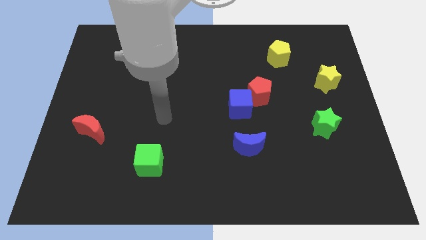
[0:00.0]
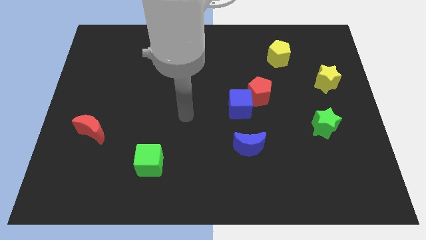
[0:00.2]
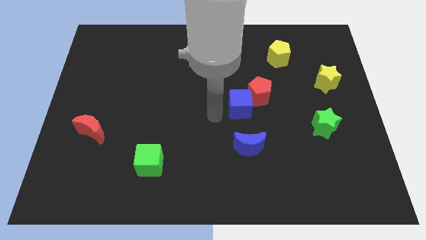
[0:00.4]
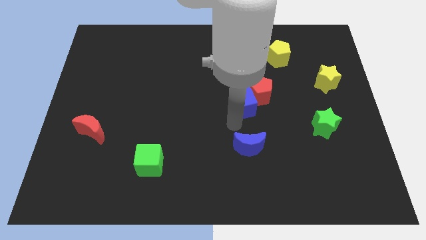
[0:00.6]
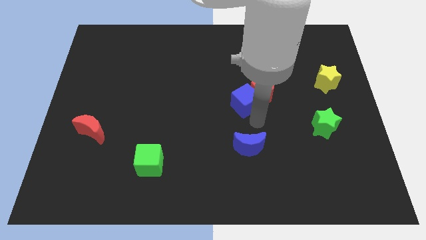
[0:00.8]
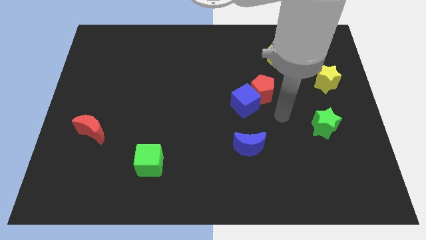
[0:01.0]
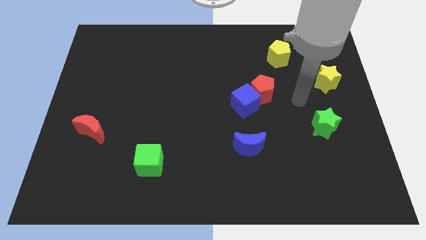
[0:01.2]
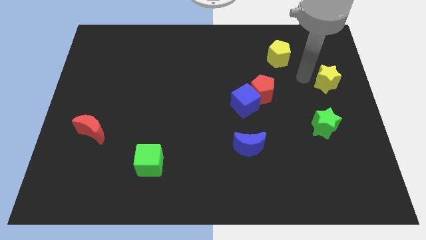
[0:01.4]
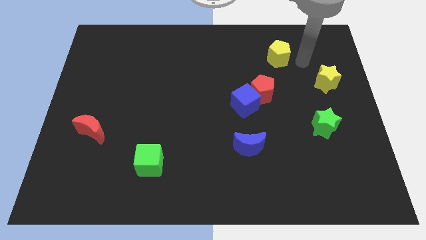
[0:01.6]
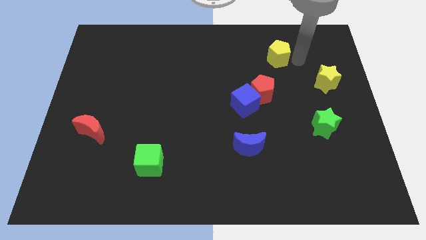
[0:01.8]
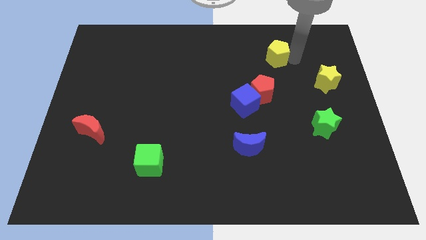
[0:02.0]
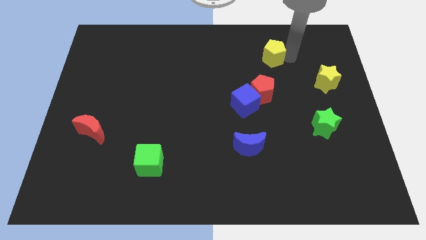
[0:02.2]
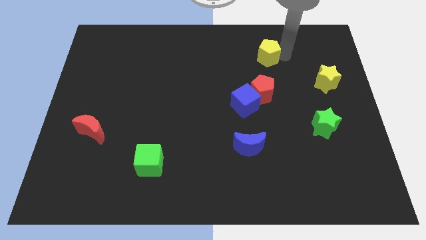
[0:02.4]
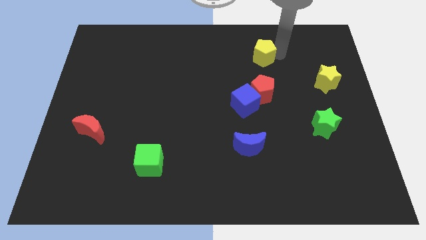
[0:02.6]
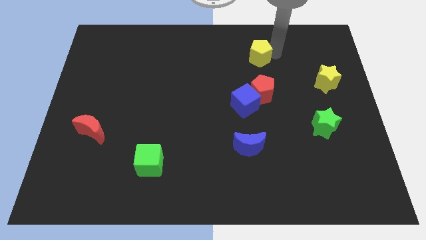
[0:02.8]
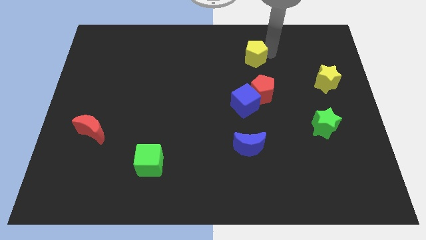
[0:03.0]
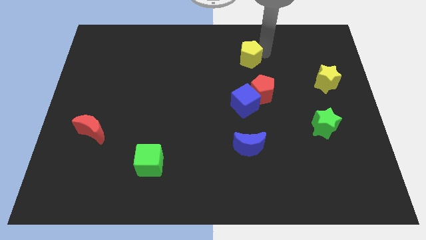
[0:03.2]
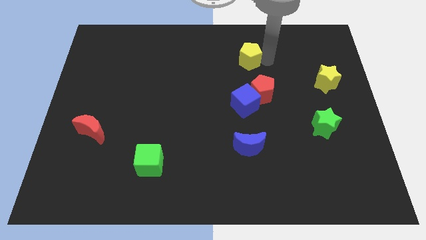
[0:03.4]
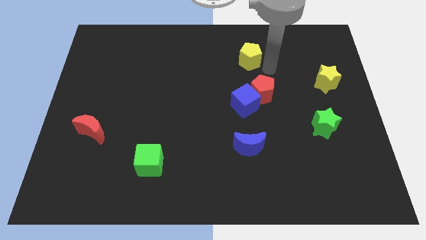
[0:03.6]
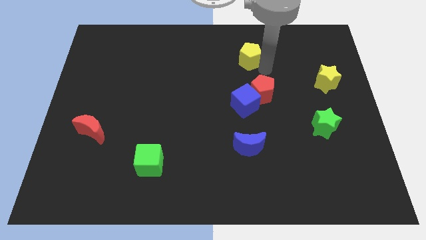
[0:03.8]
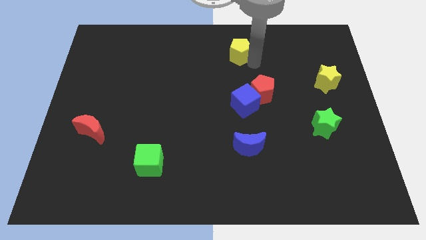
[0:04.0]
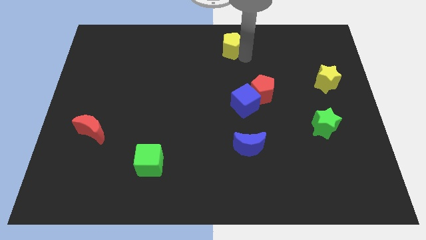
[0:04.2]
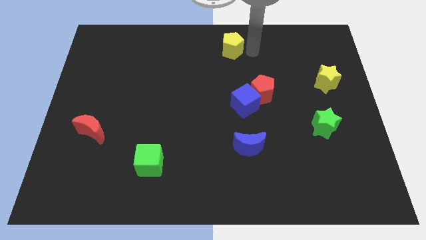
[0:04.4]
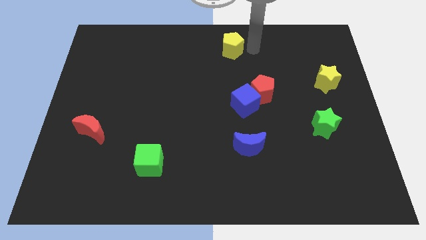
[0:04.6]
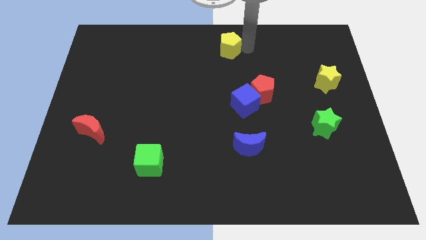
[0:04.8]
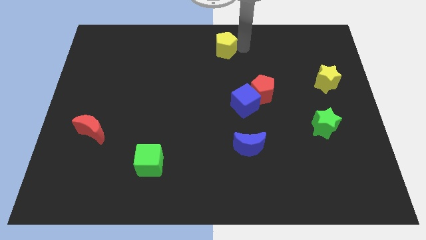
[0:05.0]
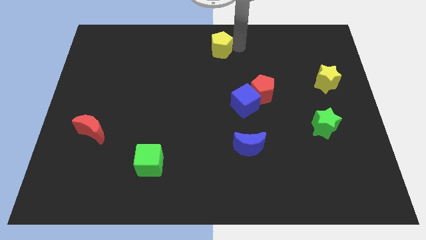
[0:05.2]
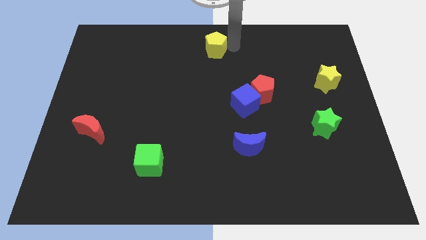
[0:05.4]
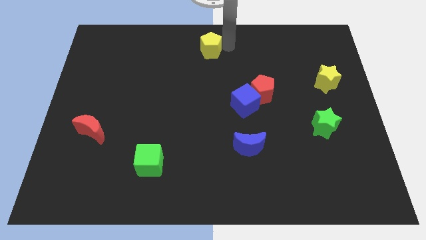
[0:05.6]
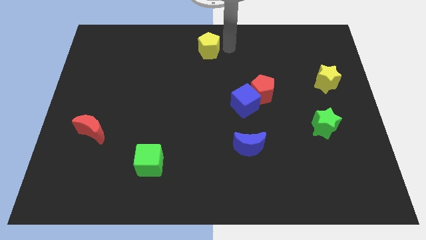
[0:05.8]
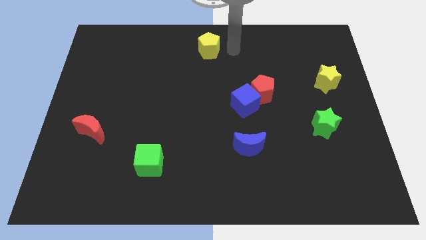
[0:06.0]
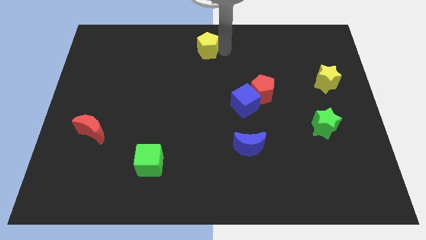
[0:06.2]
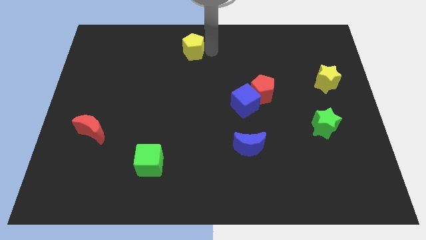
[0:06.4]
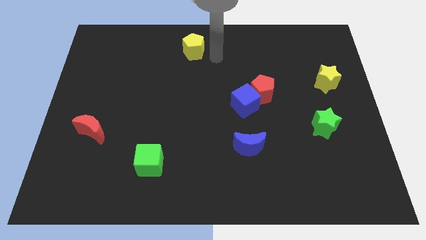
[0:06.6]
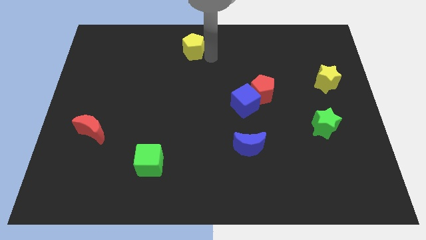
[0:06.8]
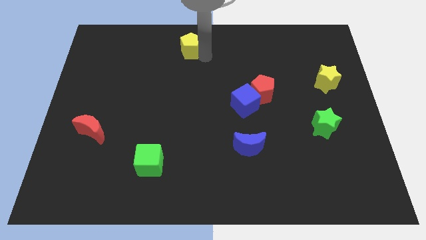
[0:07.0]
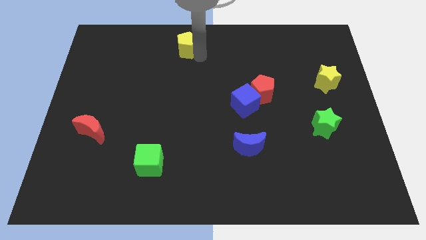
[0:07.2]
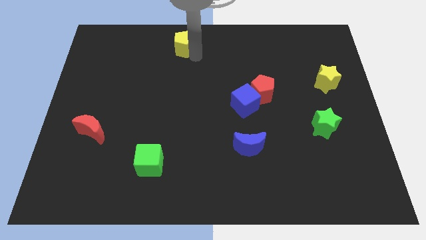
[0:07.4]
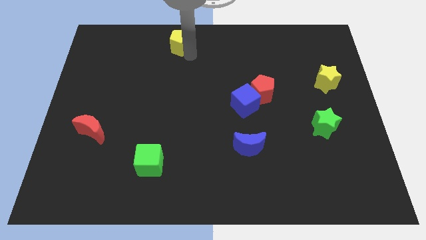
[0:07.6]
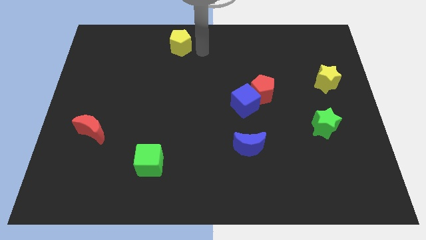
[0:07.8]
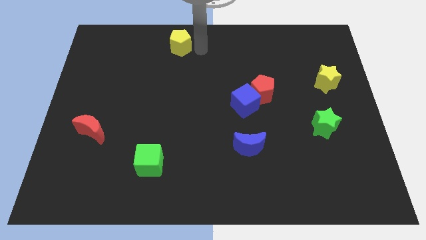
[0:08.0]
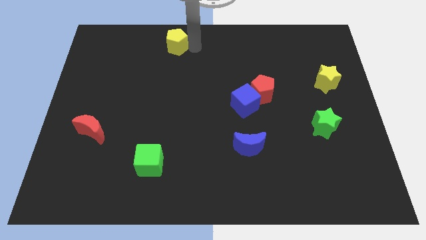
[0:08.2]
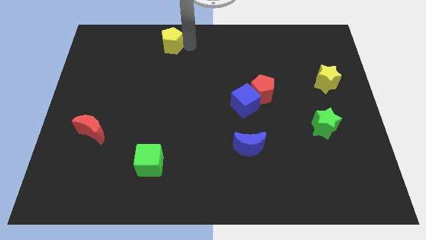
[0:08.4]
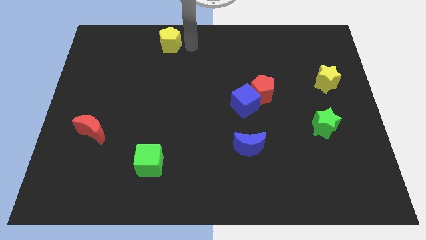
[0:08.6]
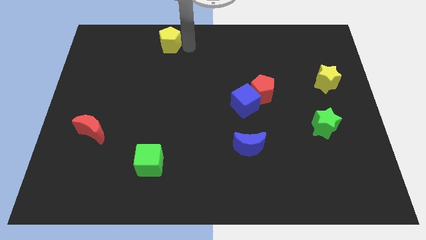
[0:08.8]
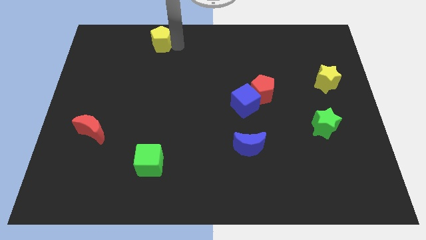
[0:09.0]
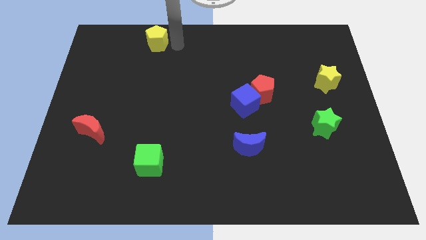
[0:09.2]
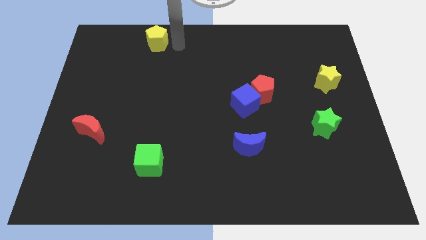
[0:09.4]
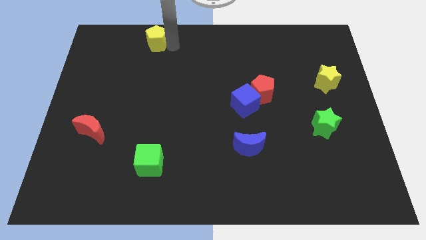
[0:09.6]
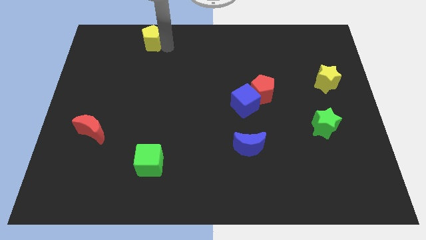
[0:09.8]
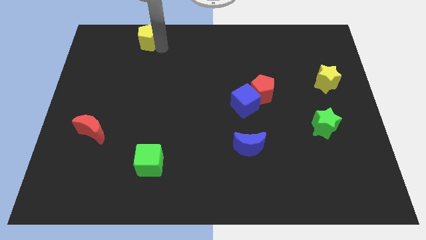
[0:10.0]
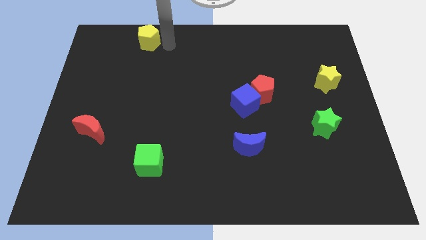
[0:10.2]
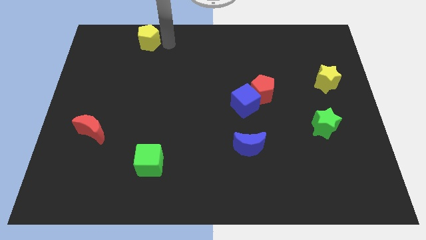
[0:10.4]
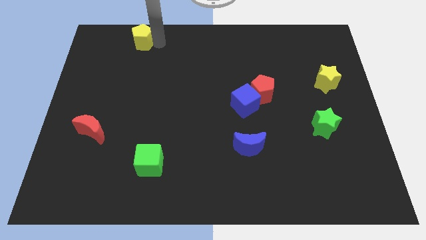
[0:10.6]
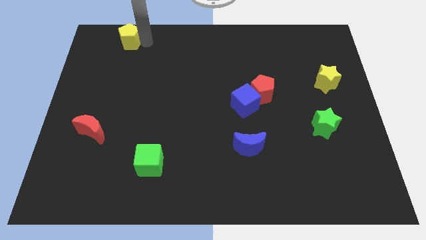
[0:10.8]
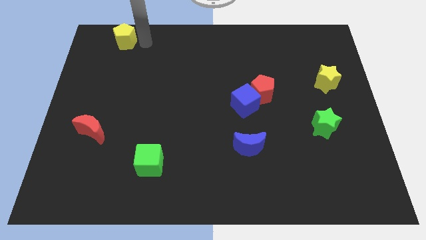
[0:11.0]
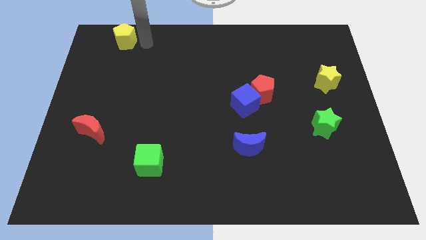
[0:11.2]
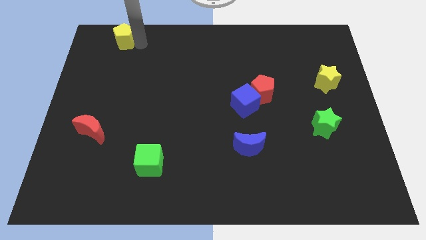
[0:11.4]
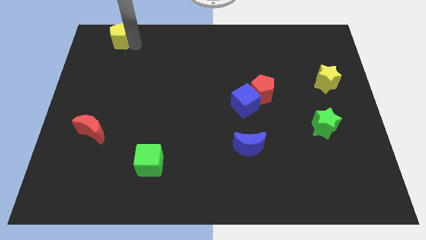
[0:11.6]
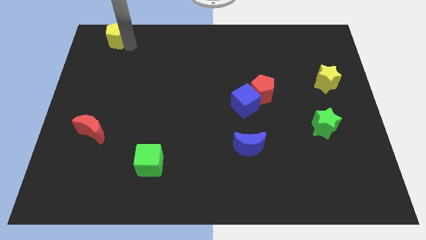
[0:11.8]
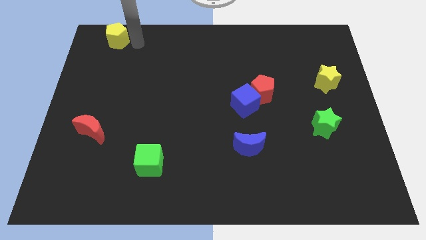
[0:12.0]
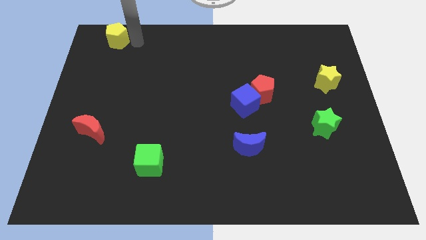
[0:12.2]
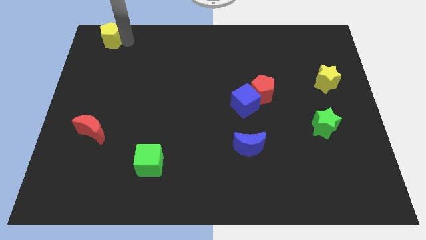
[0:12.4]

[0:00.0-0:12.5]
put the yellow pentagon to the top left of the board
